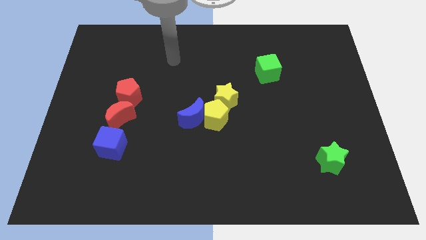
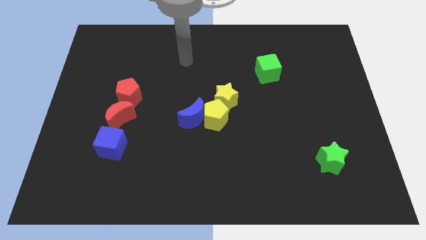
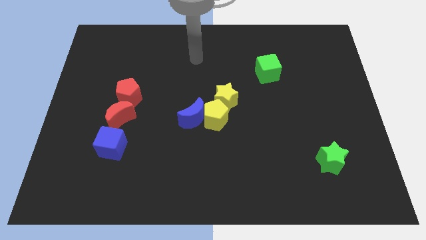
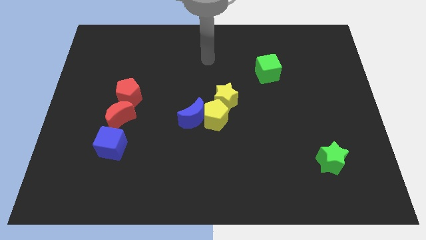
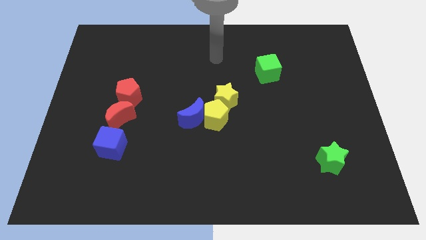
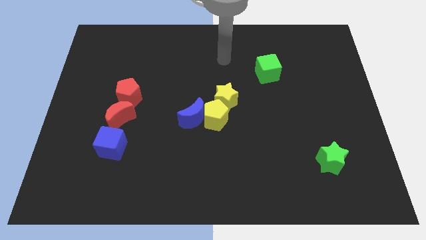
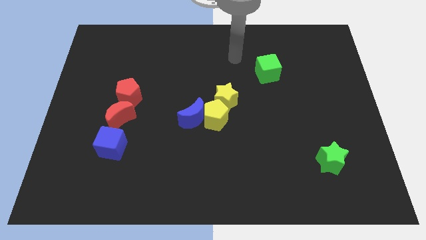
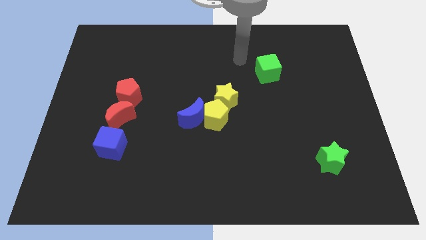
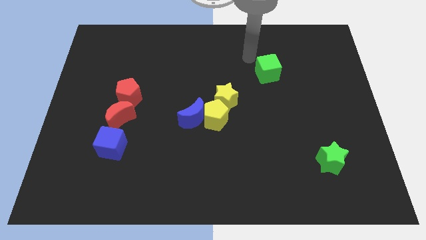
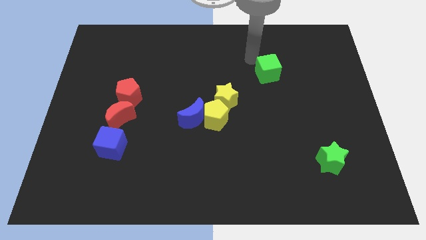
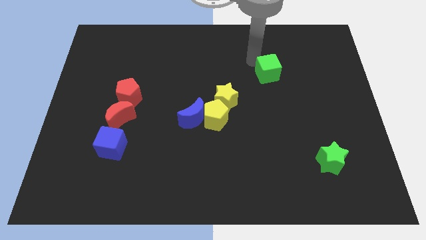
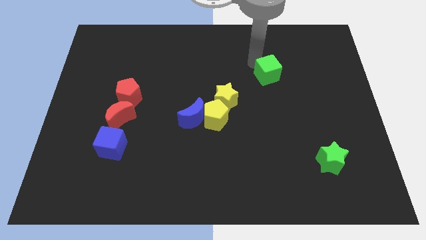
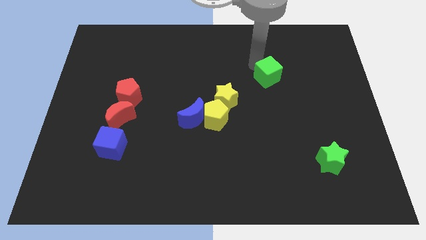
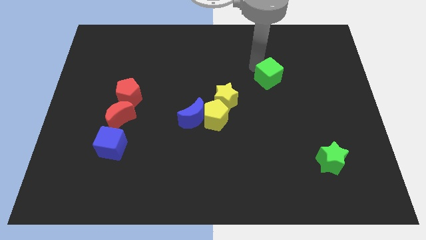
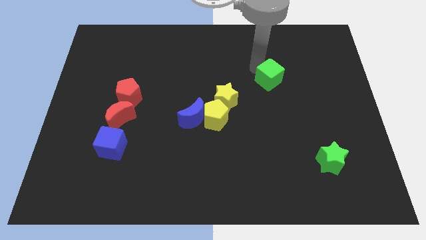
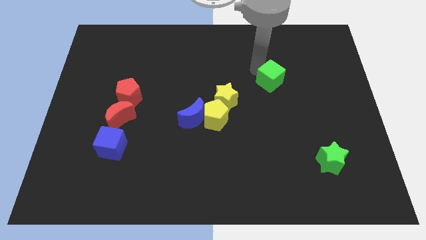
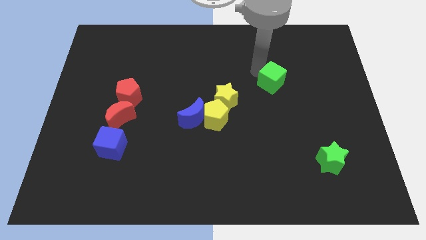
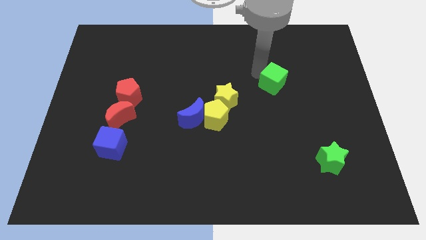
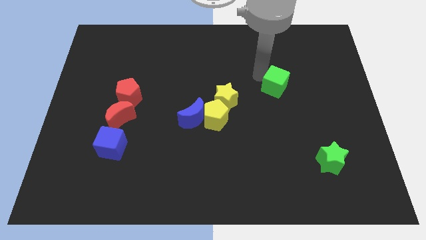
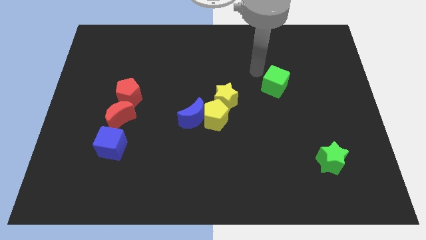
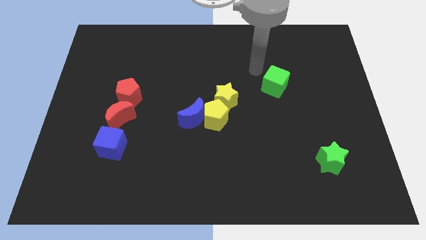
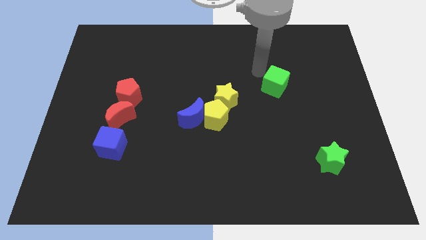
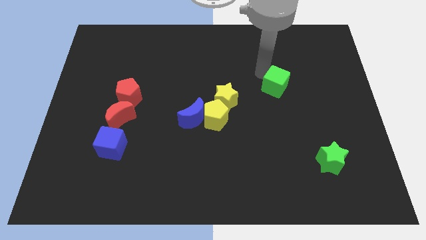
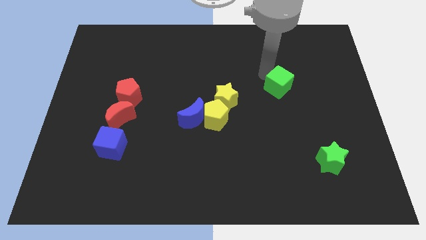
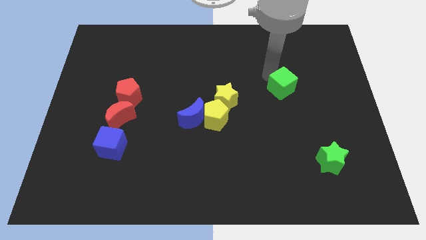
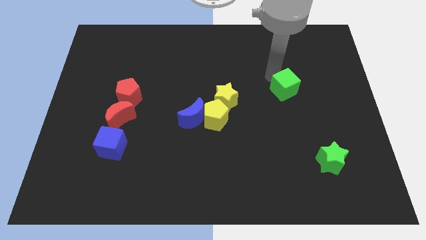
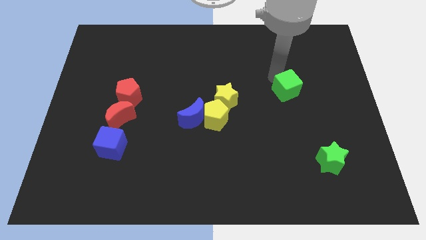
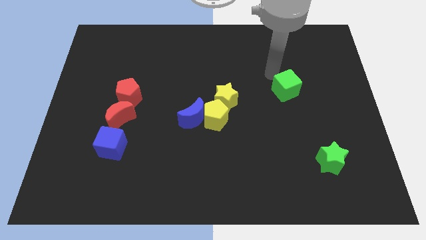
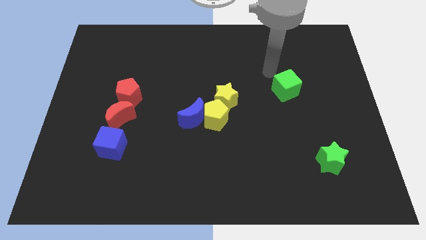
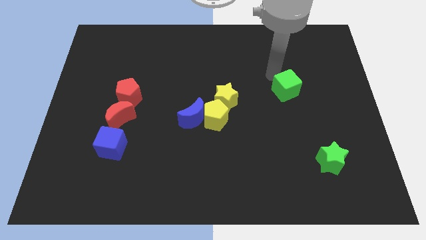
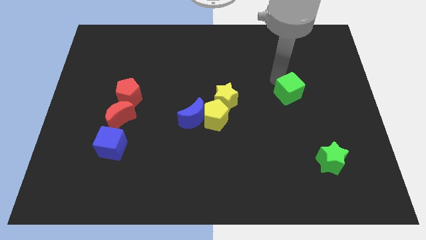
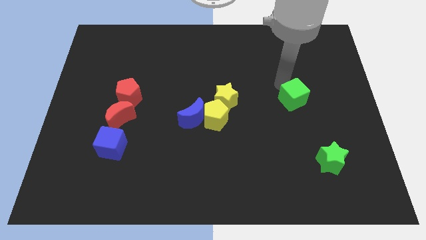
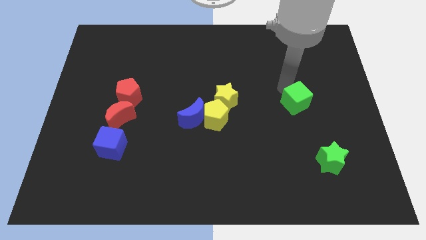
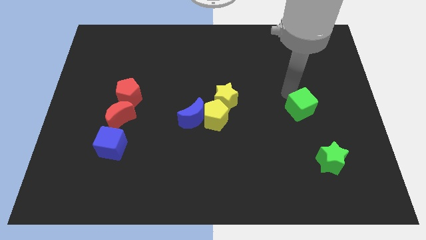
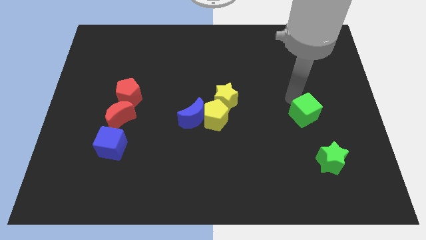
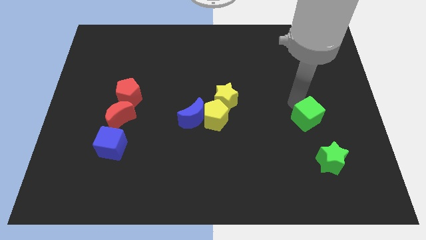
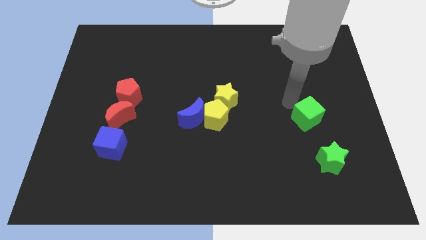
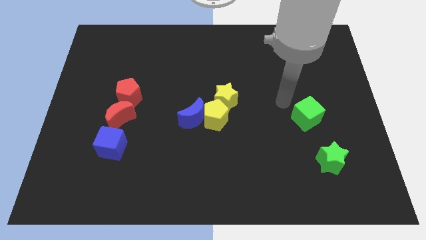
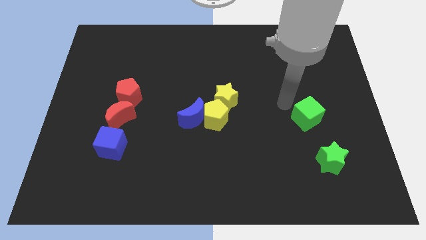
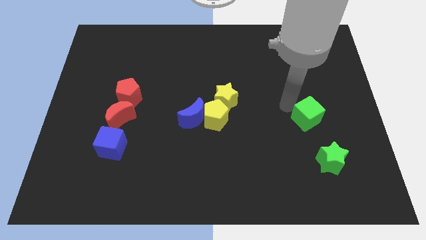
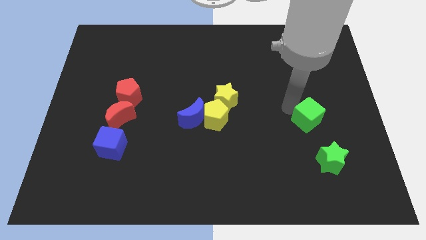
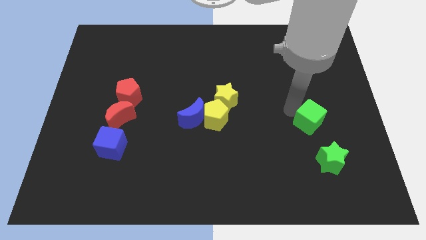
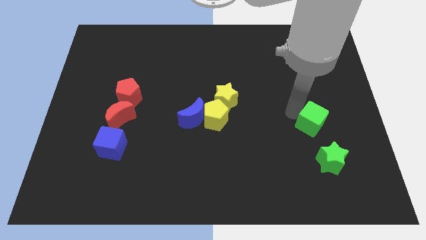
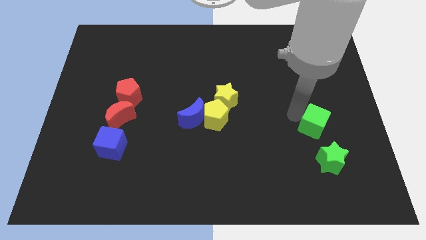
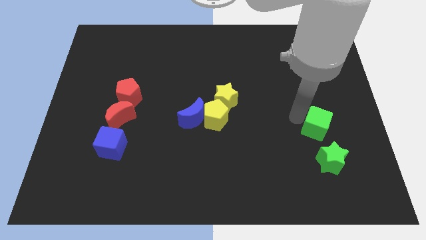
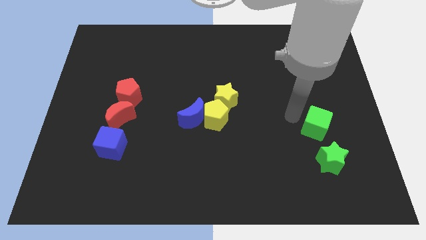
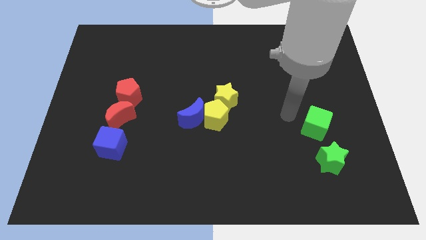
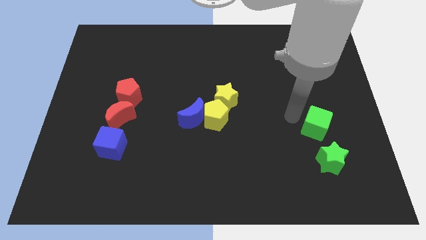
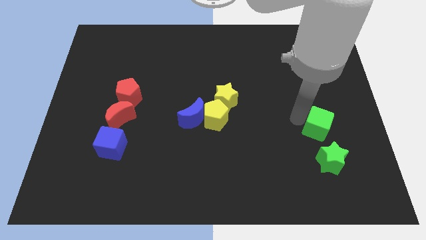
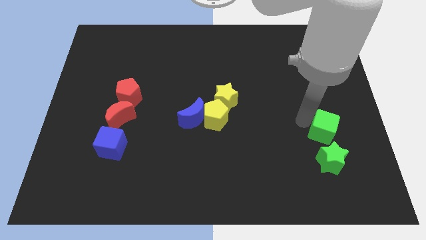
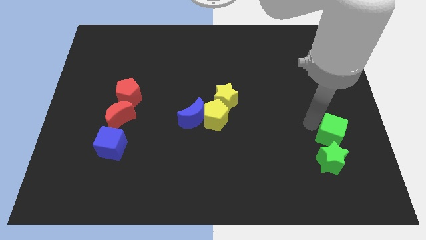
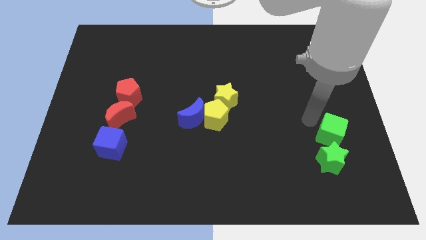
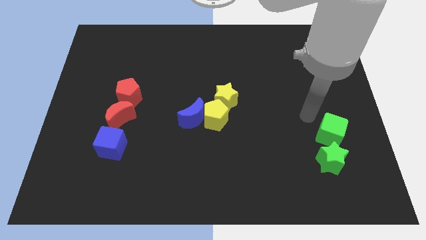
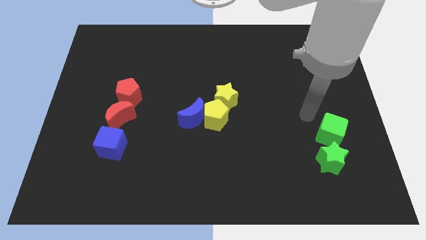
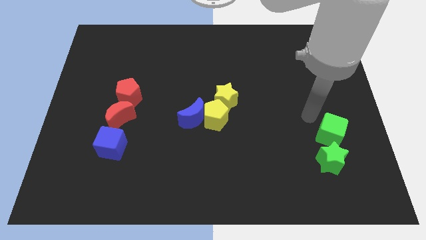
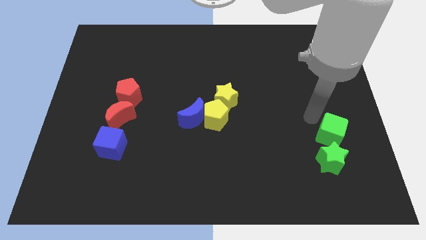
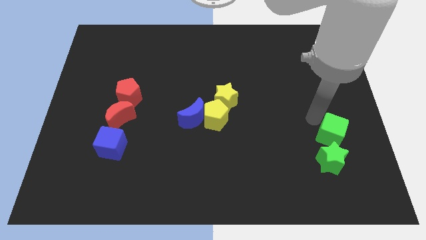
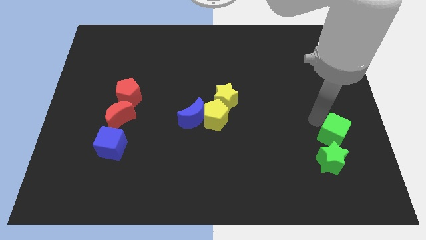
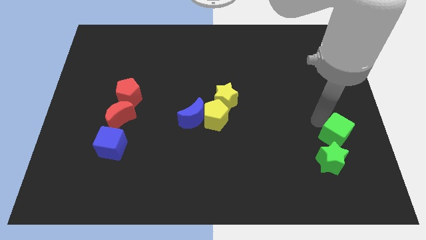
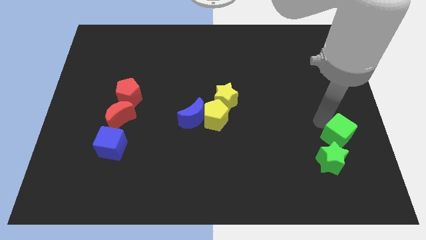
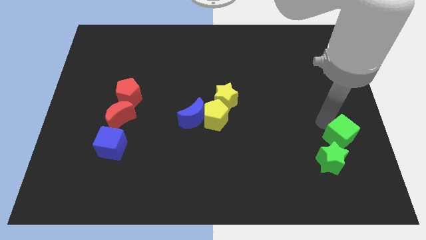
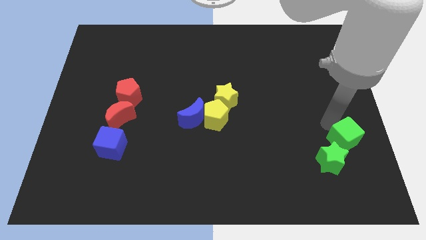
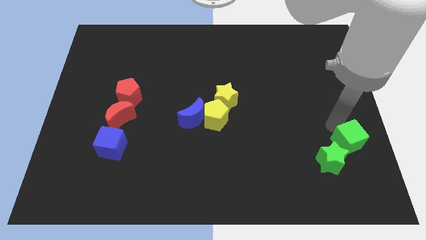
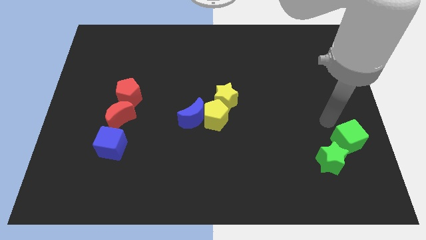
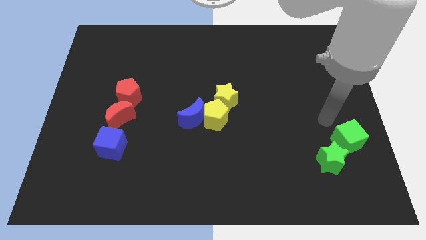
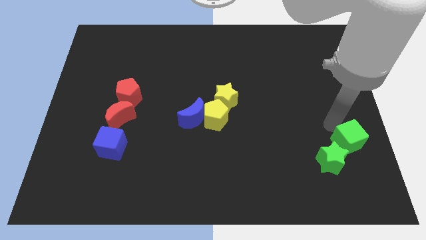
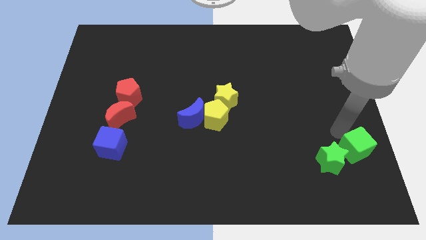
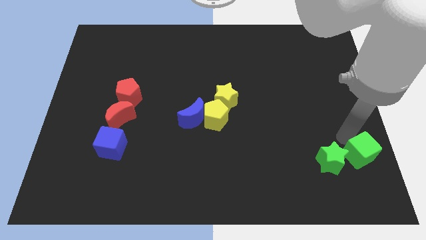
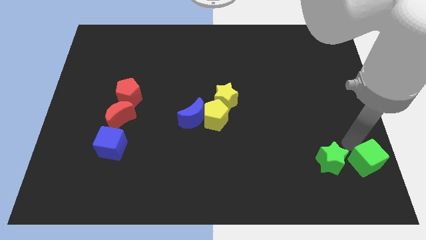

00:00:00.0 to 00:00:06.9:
move the green cube to the bottom right of the board

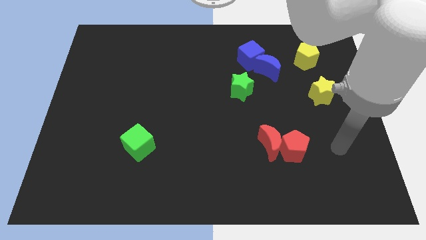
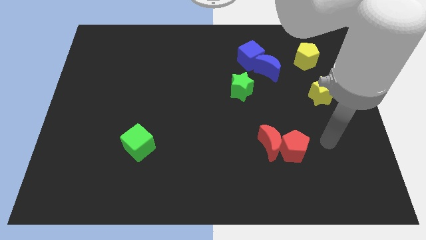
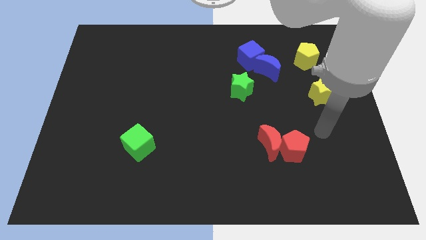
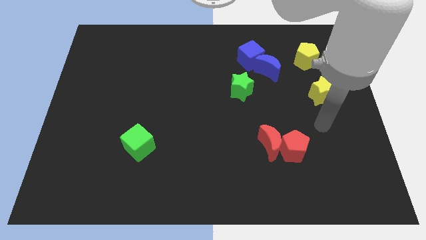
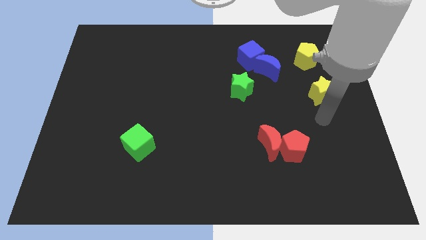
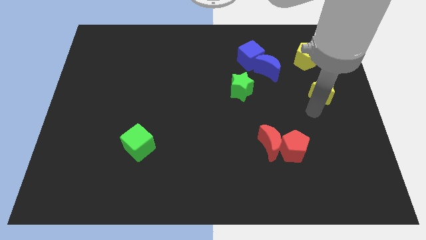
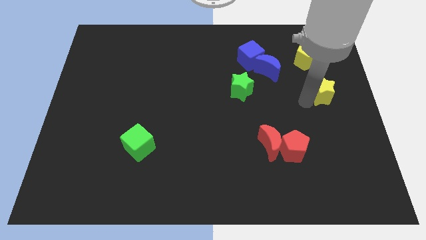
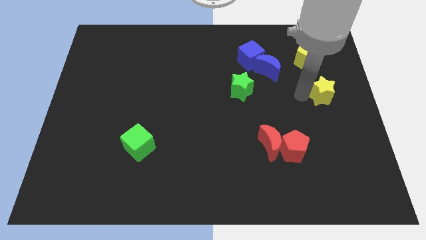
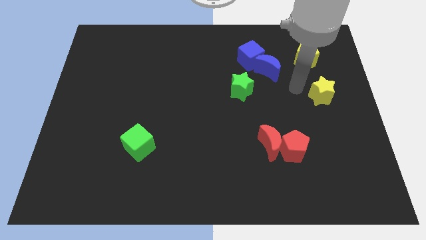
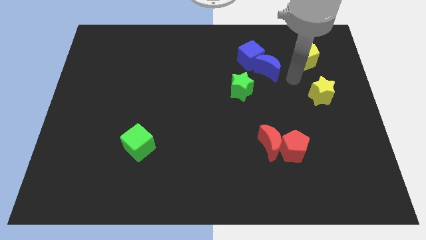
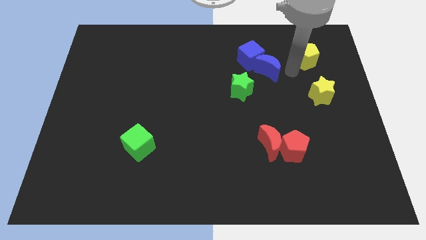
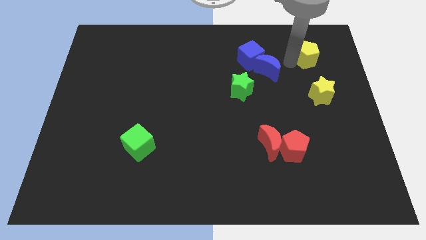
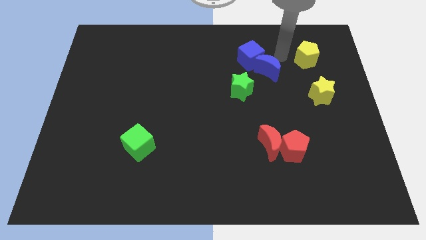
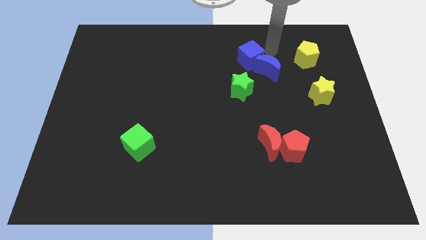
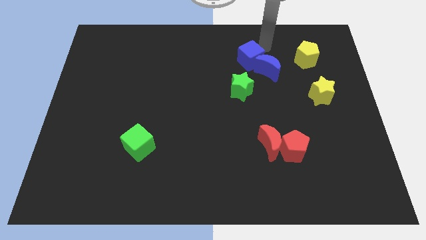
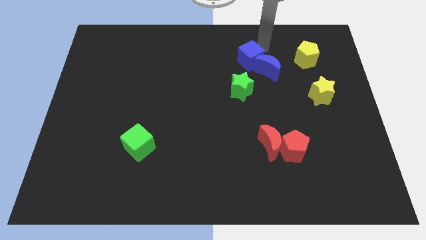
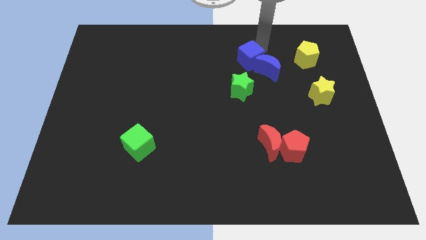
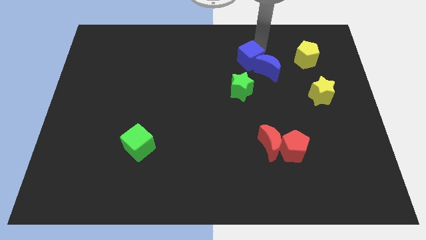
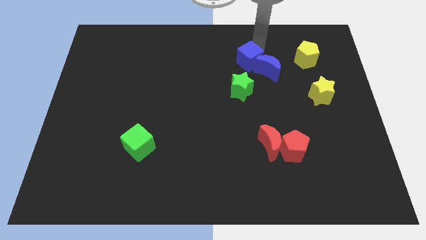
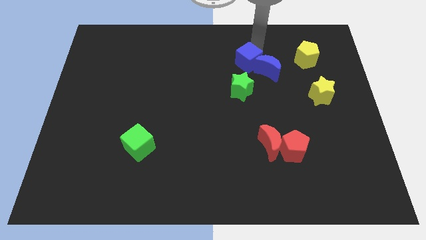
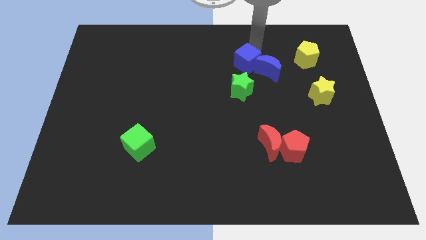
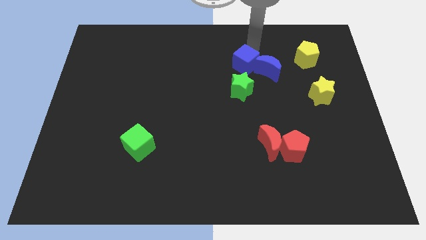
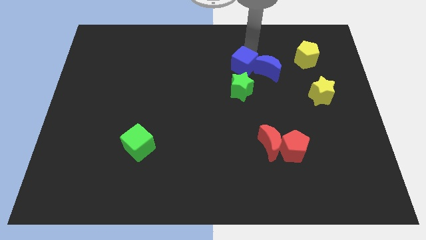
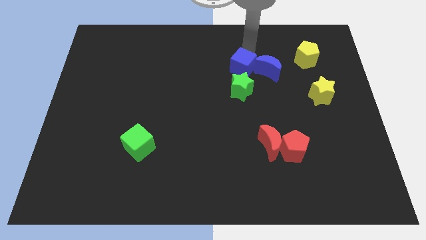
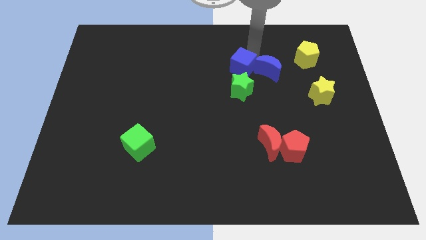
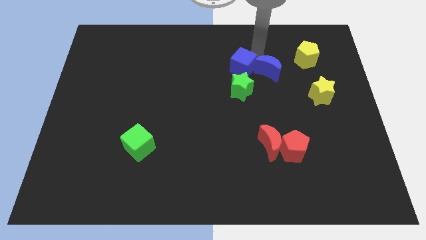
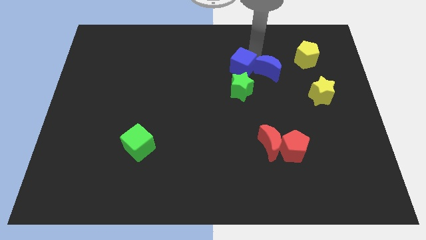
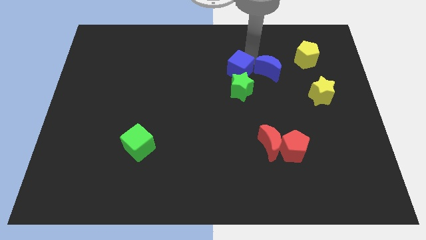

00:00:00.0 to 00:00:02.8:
put the blue cube to the center of the board
